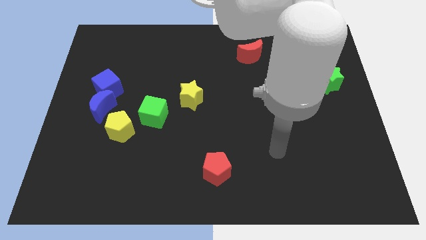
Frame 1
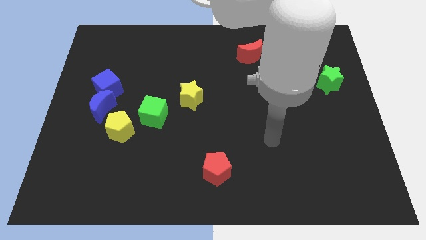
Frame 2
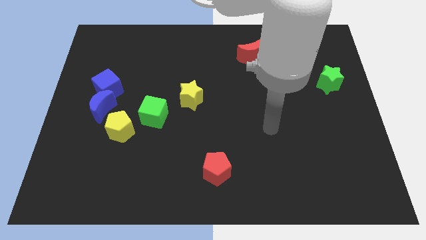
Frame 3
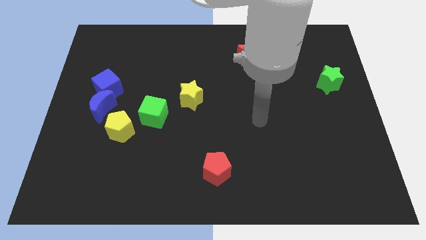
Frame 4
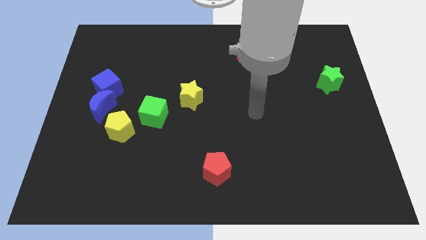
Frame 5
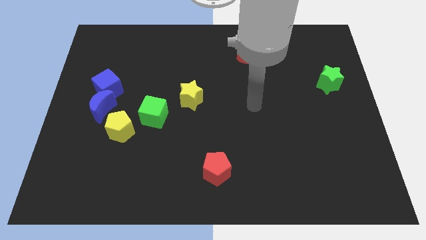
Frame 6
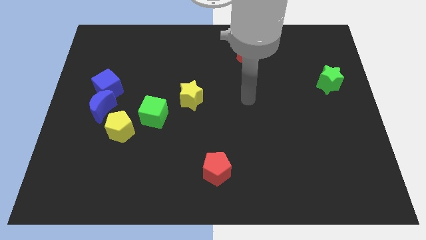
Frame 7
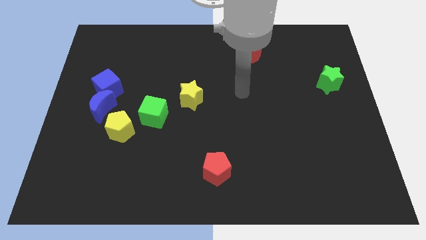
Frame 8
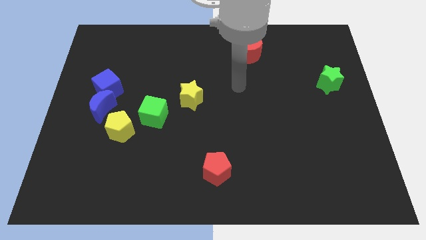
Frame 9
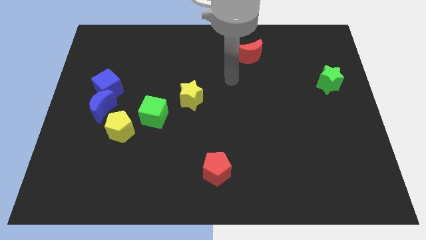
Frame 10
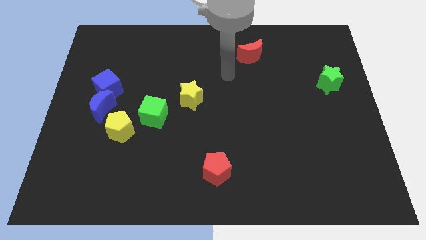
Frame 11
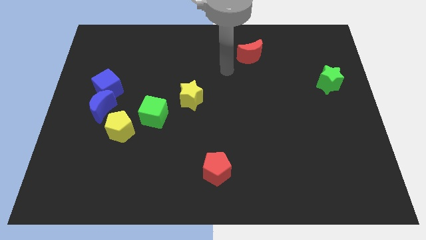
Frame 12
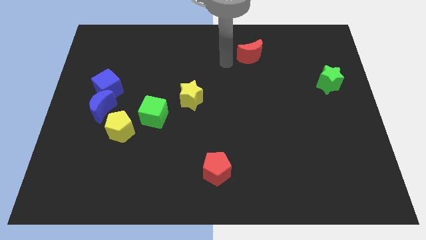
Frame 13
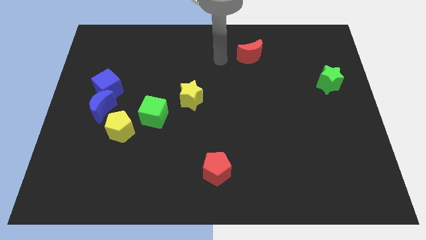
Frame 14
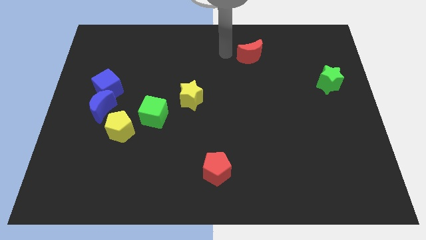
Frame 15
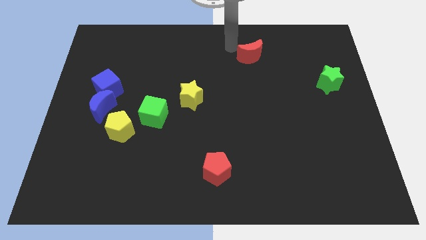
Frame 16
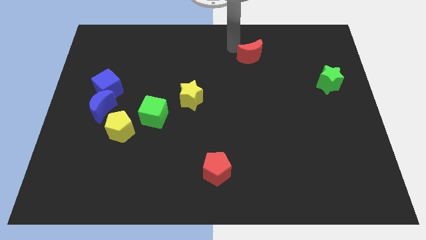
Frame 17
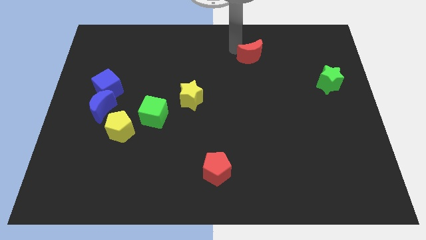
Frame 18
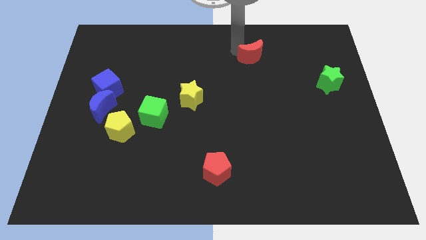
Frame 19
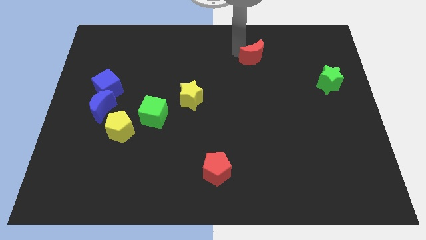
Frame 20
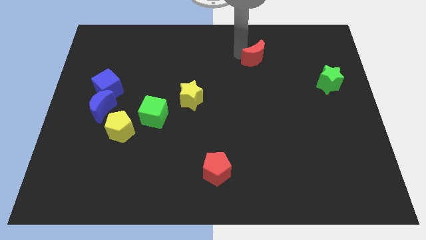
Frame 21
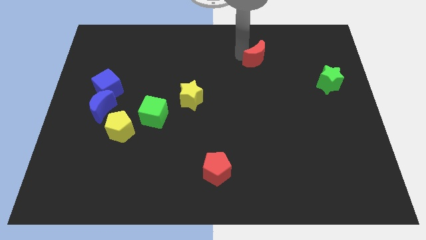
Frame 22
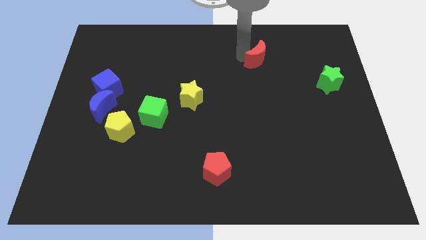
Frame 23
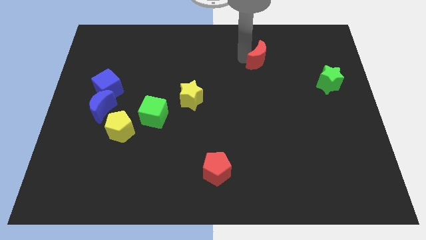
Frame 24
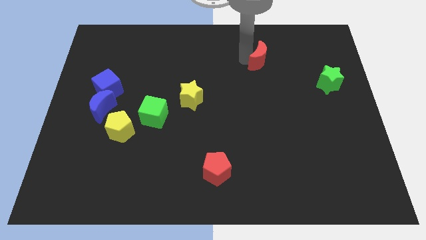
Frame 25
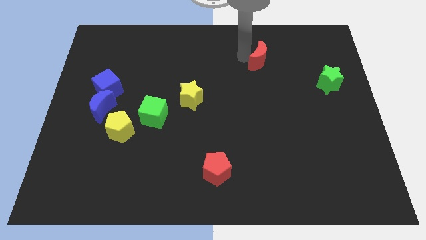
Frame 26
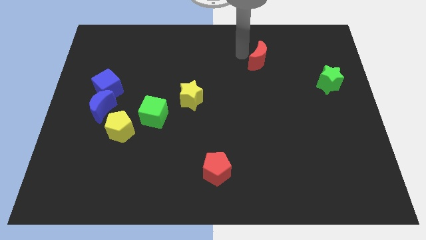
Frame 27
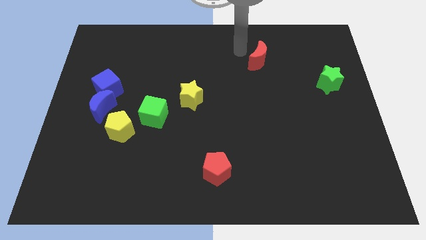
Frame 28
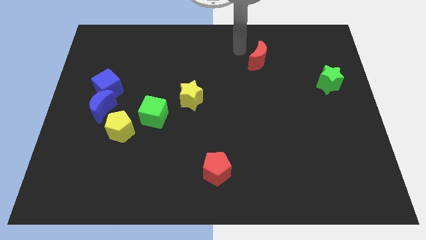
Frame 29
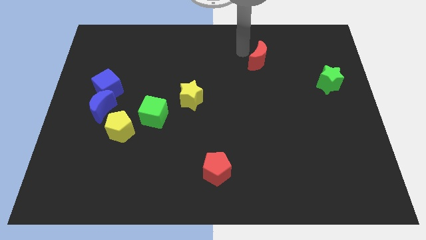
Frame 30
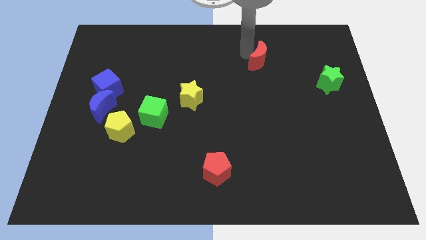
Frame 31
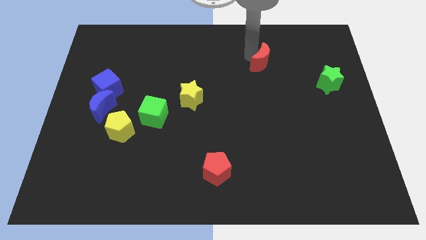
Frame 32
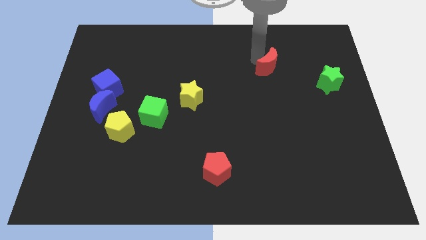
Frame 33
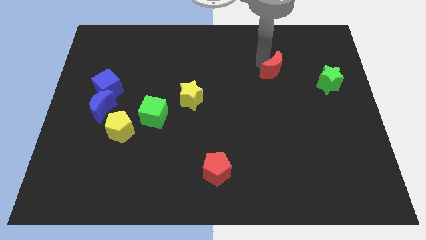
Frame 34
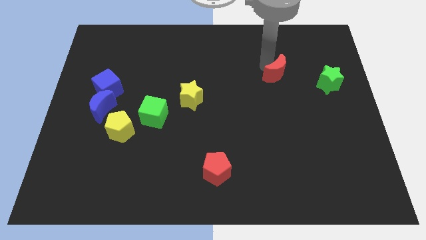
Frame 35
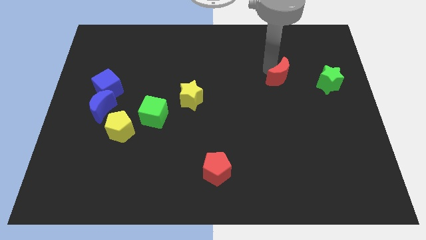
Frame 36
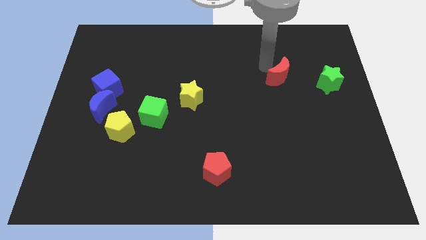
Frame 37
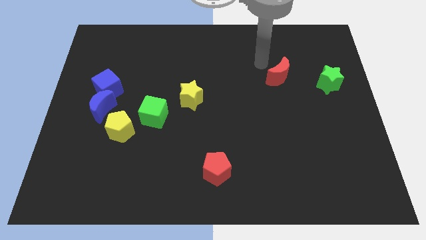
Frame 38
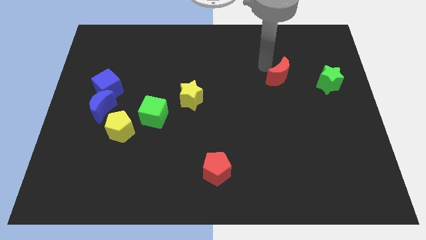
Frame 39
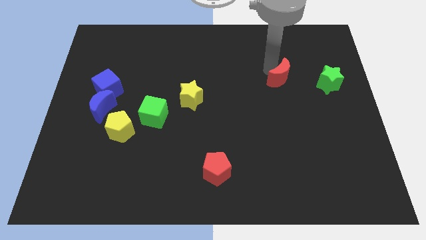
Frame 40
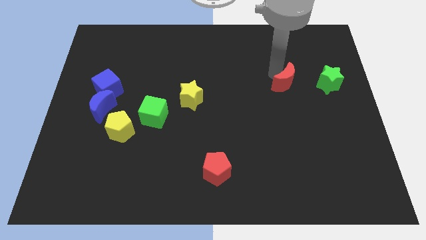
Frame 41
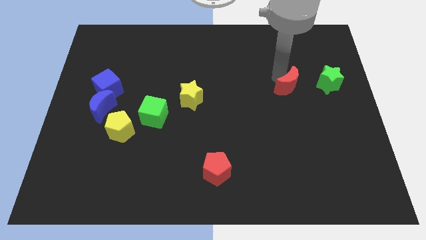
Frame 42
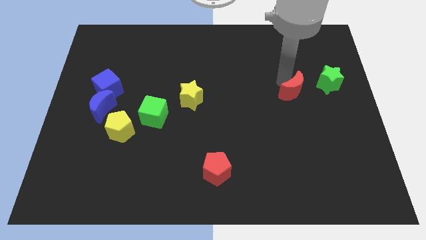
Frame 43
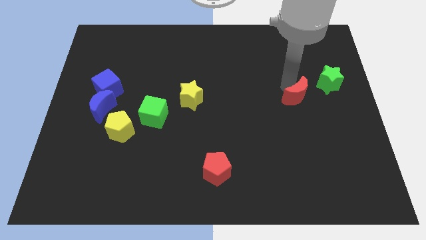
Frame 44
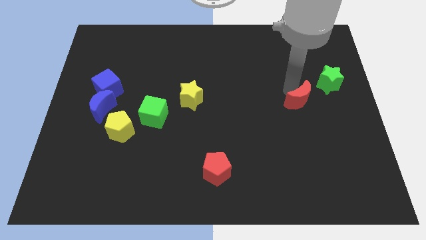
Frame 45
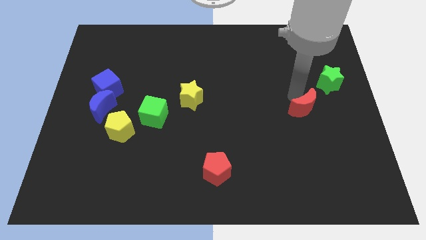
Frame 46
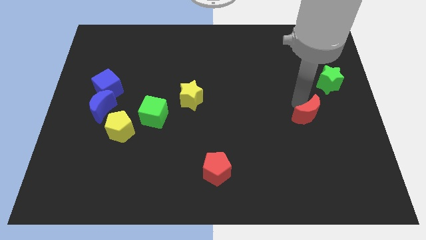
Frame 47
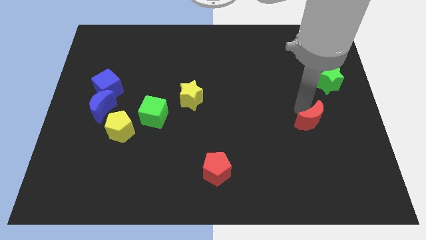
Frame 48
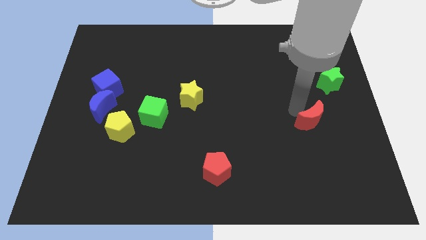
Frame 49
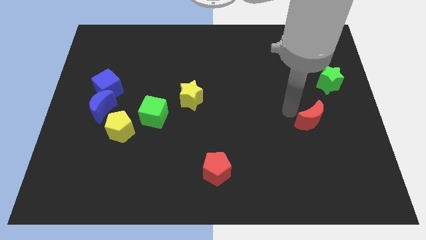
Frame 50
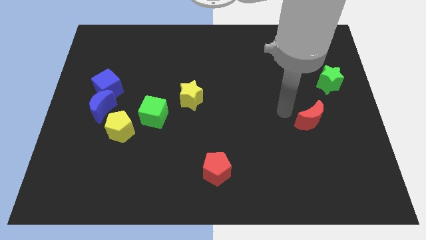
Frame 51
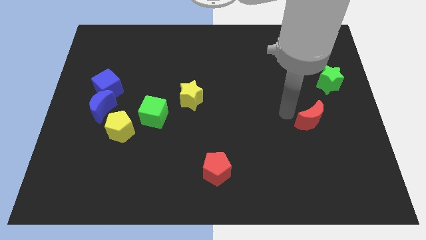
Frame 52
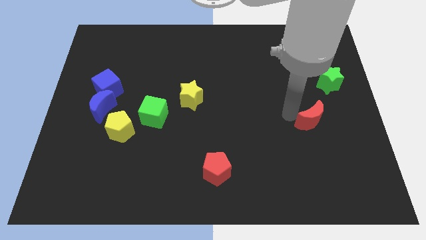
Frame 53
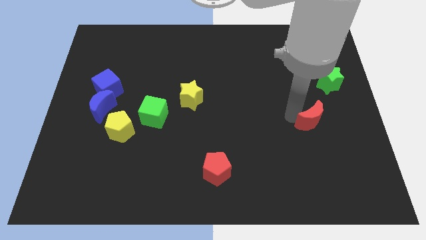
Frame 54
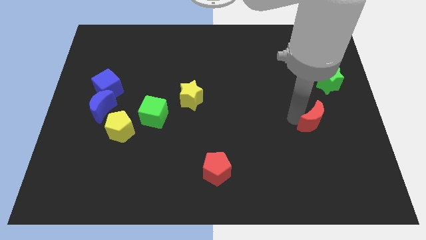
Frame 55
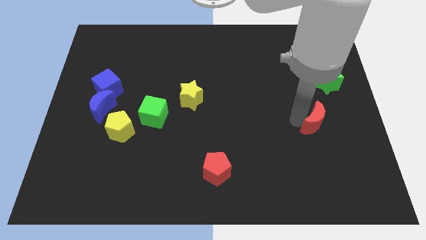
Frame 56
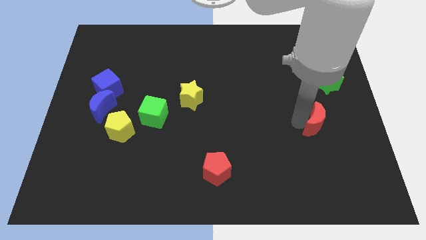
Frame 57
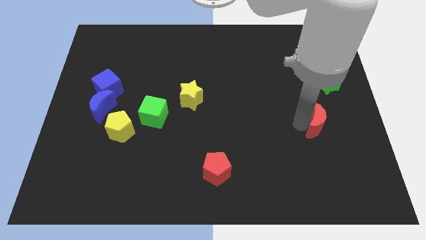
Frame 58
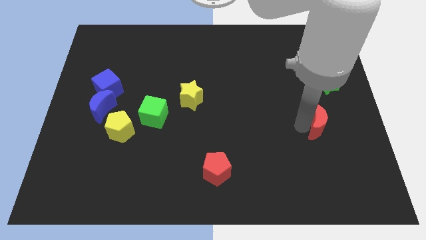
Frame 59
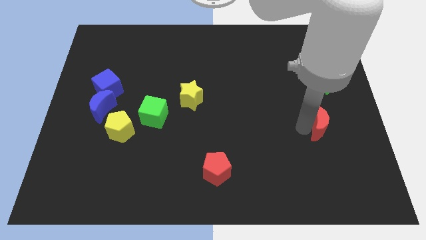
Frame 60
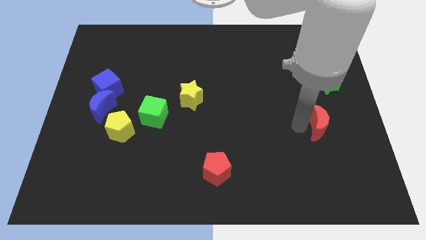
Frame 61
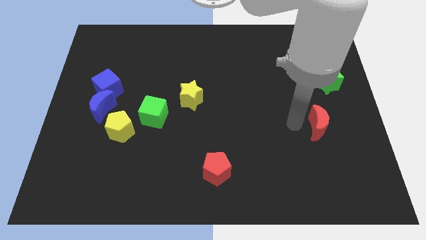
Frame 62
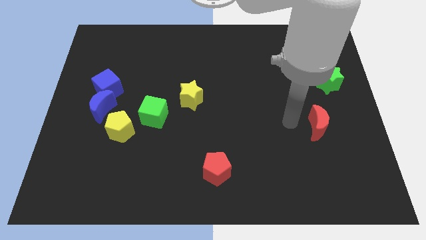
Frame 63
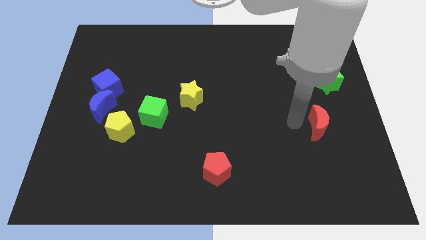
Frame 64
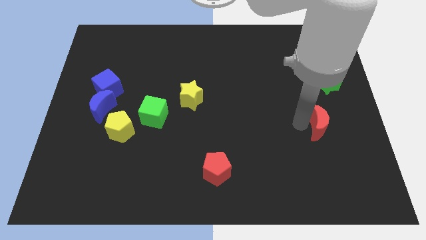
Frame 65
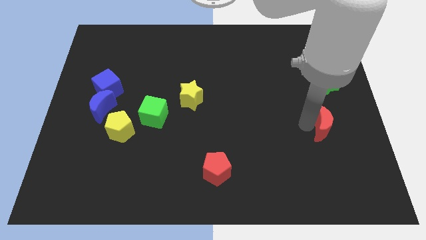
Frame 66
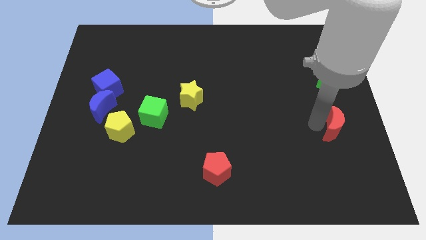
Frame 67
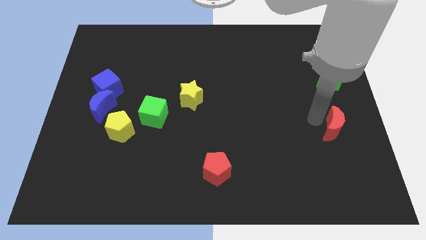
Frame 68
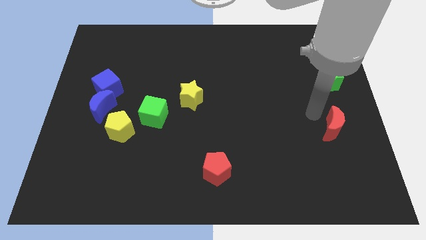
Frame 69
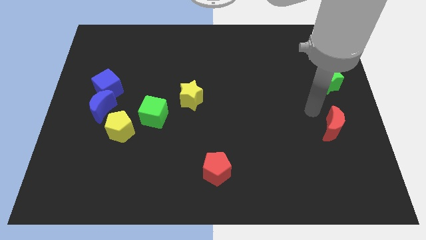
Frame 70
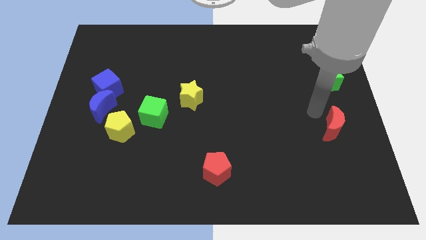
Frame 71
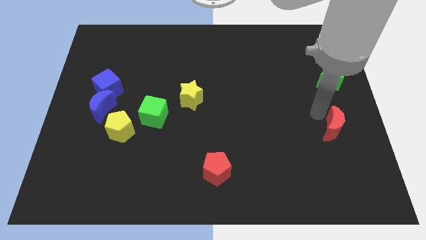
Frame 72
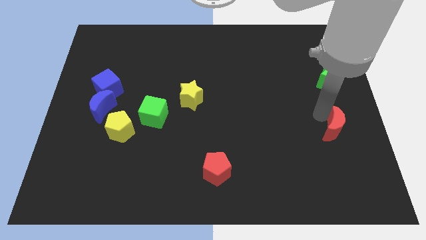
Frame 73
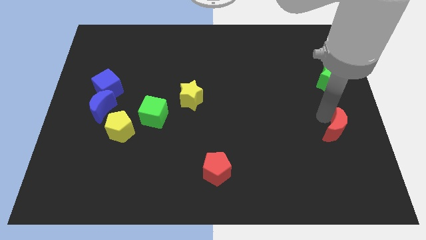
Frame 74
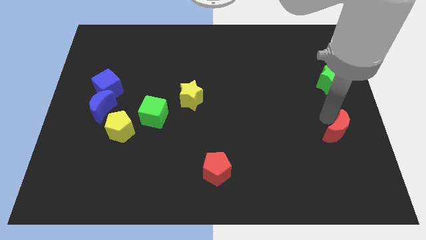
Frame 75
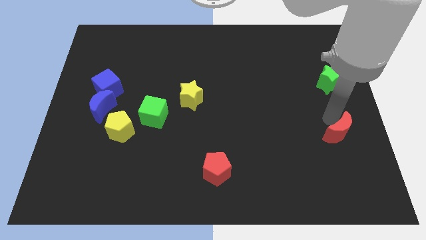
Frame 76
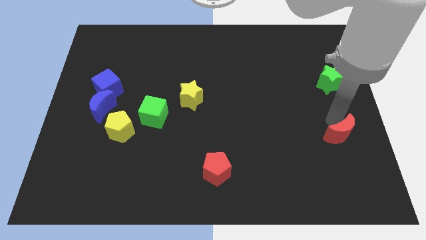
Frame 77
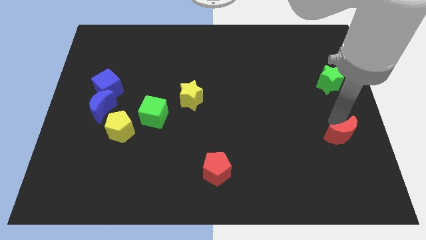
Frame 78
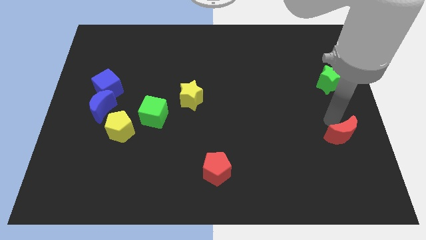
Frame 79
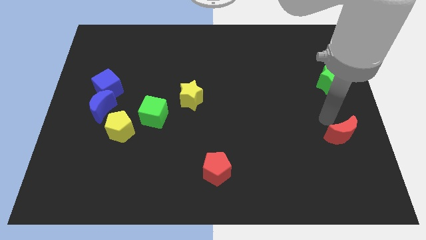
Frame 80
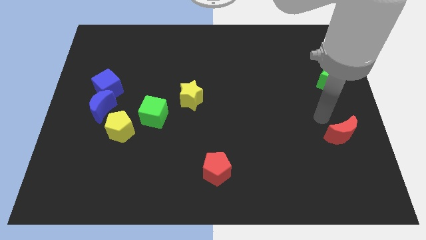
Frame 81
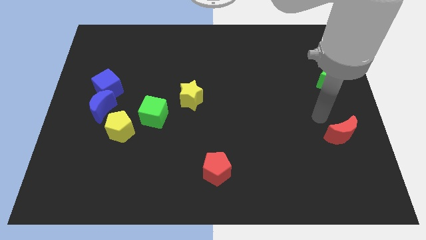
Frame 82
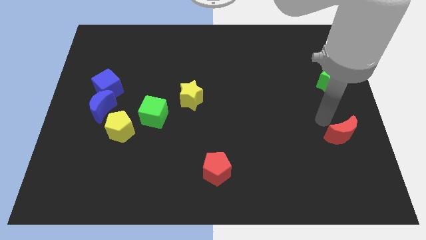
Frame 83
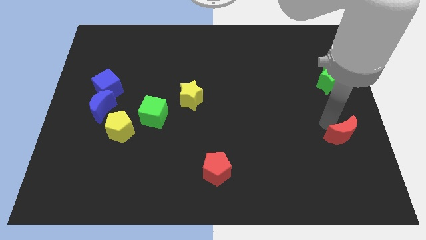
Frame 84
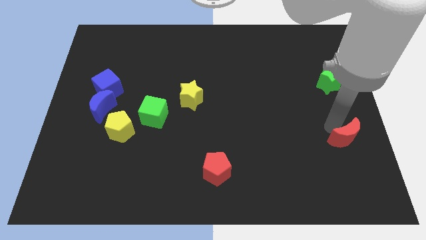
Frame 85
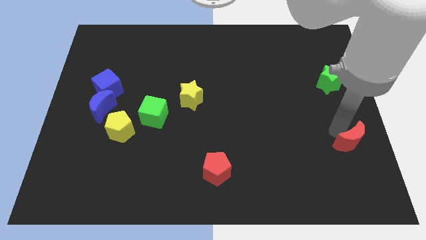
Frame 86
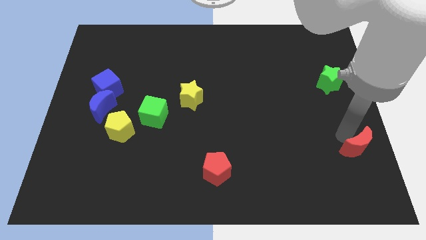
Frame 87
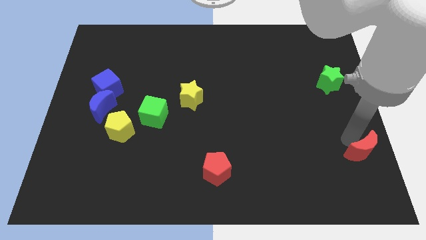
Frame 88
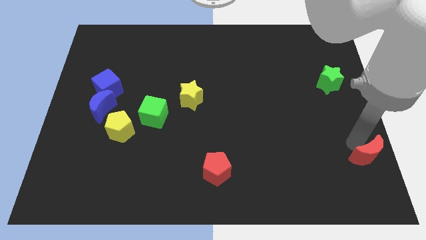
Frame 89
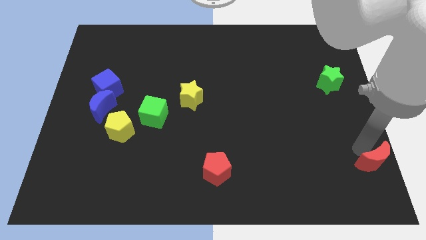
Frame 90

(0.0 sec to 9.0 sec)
slide the red moon to the bottom right
